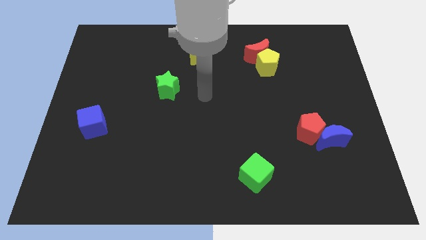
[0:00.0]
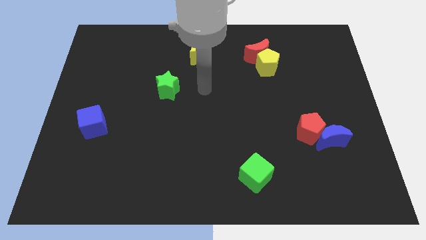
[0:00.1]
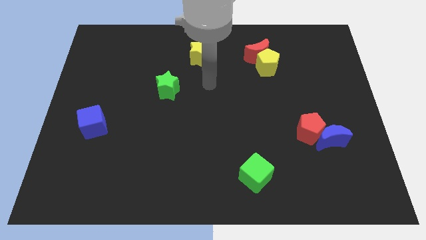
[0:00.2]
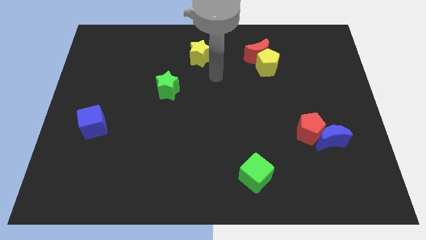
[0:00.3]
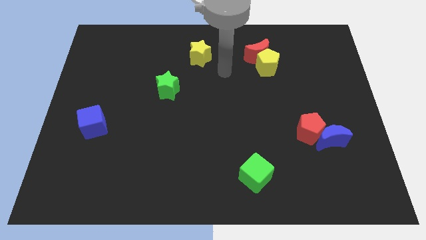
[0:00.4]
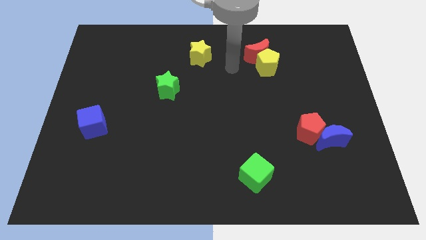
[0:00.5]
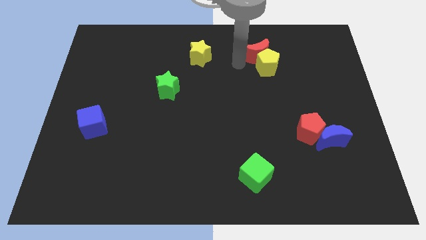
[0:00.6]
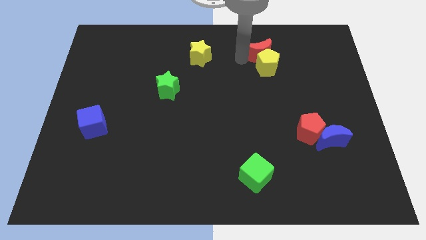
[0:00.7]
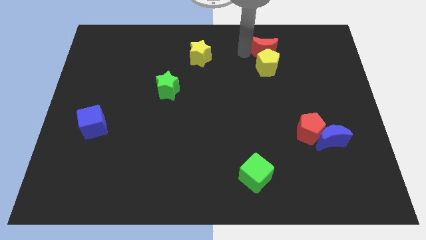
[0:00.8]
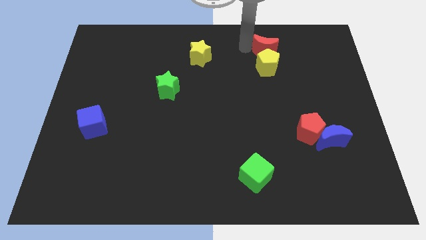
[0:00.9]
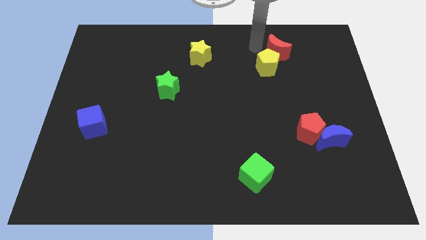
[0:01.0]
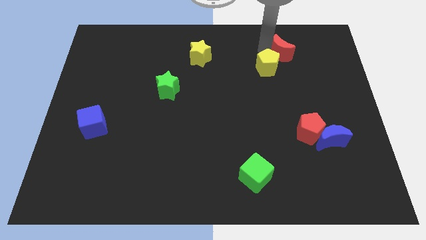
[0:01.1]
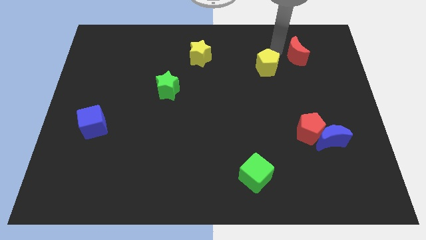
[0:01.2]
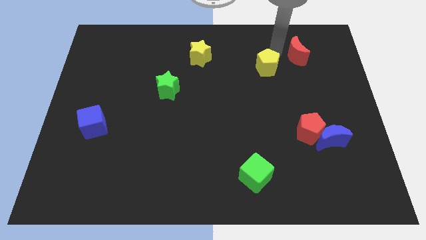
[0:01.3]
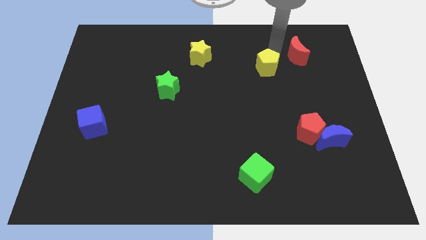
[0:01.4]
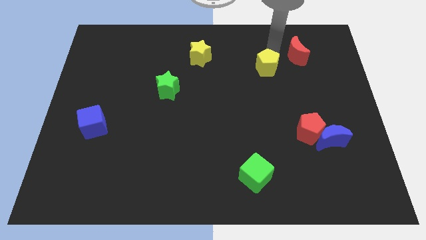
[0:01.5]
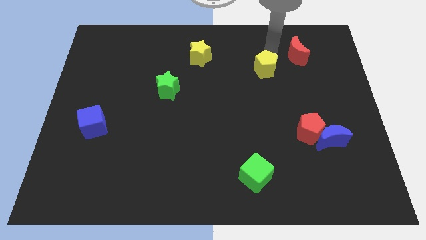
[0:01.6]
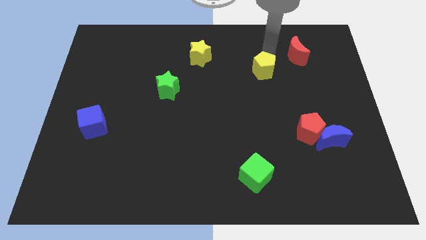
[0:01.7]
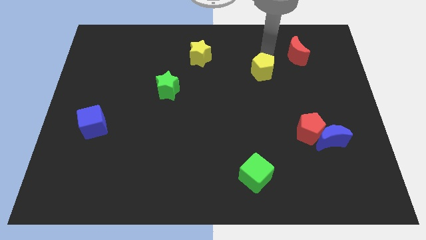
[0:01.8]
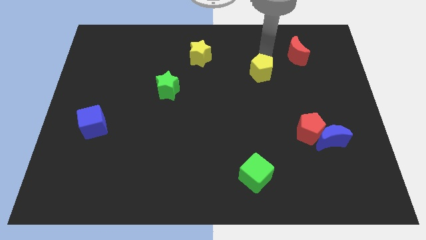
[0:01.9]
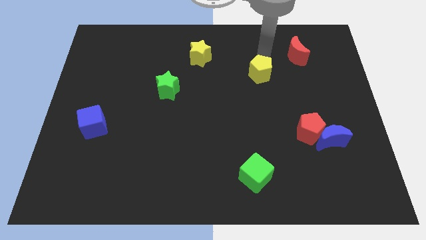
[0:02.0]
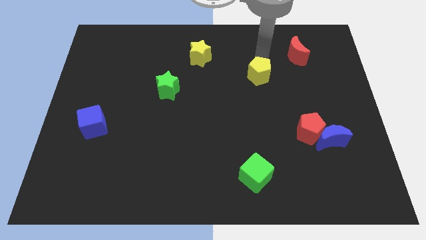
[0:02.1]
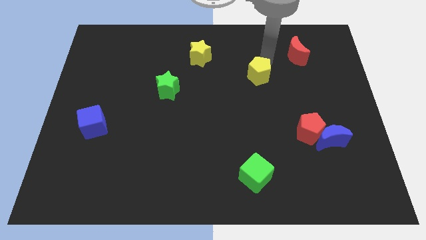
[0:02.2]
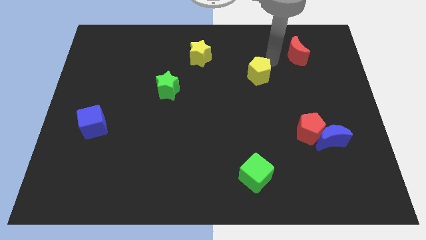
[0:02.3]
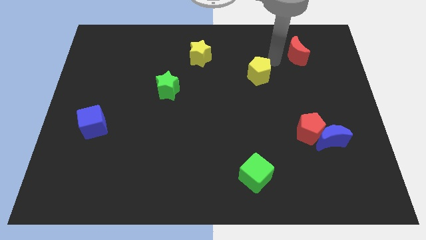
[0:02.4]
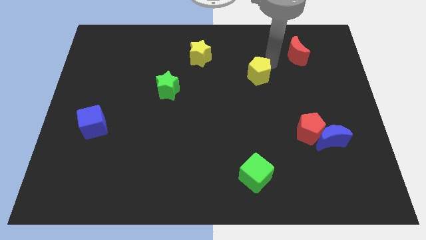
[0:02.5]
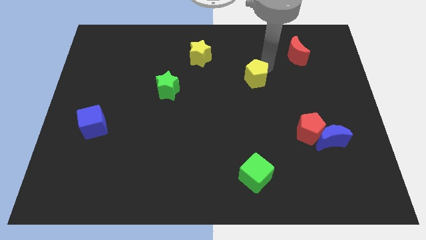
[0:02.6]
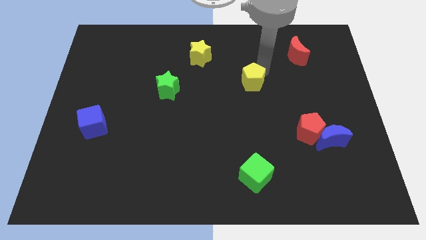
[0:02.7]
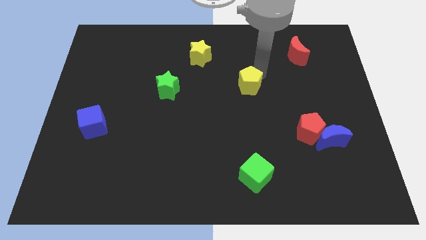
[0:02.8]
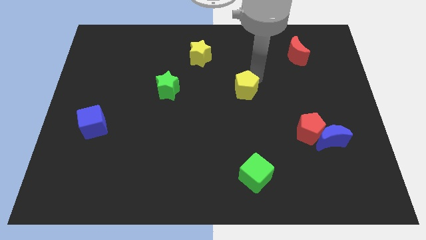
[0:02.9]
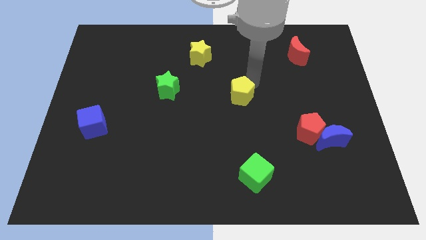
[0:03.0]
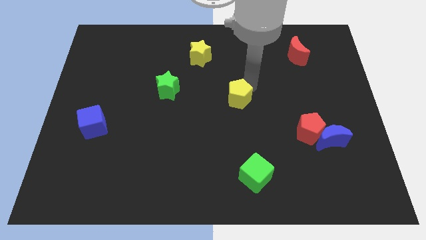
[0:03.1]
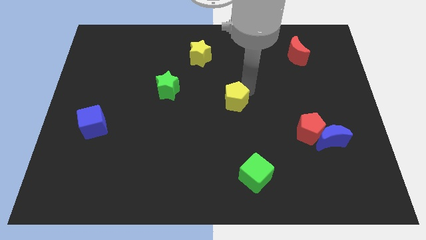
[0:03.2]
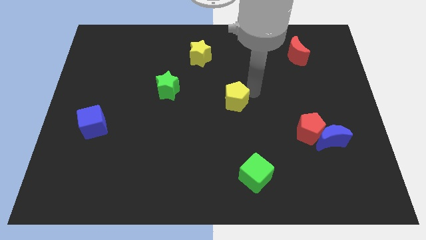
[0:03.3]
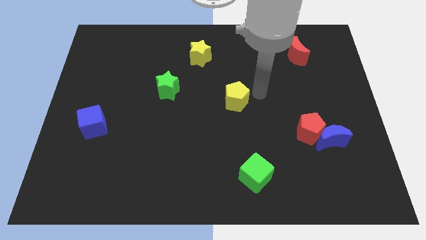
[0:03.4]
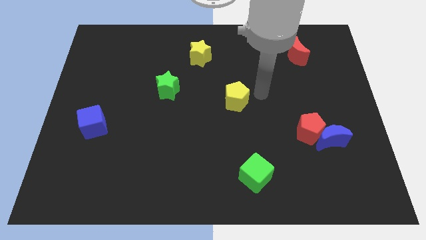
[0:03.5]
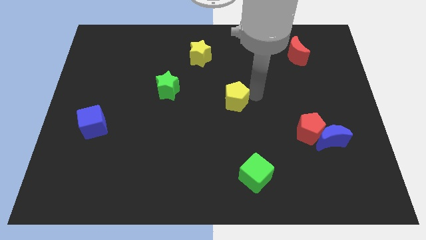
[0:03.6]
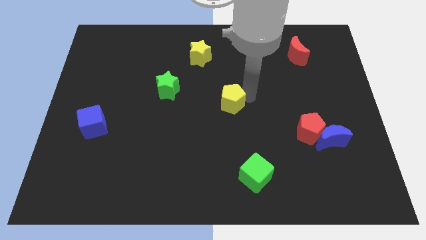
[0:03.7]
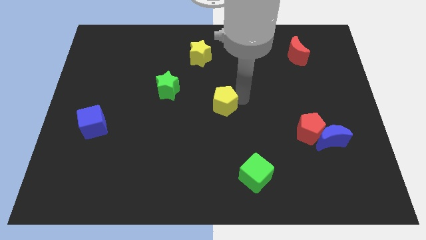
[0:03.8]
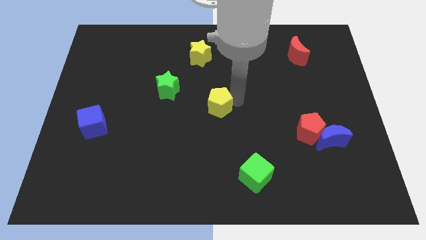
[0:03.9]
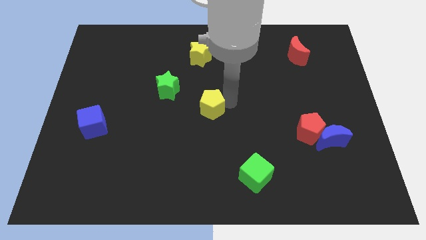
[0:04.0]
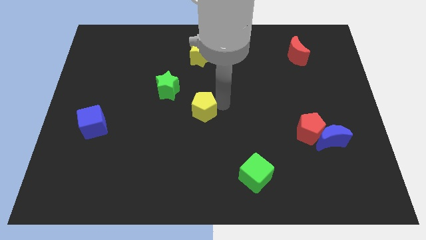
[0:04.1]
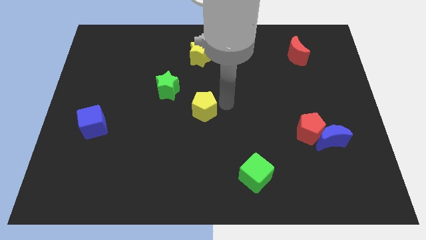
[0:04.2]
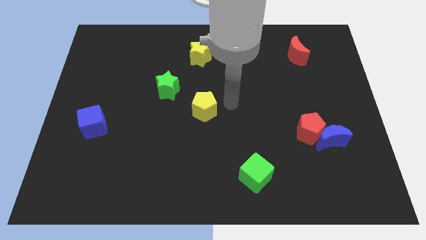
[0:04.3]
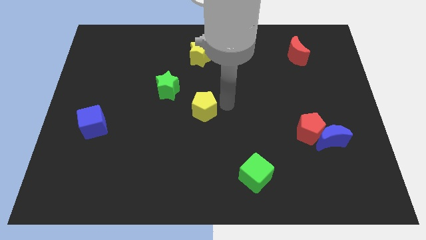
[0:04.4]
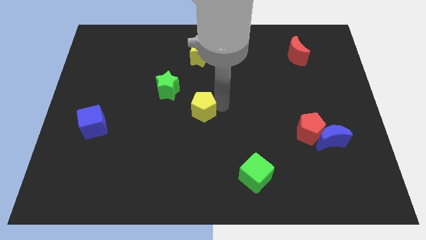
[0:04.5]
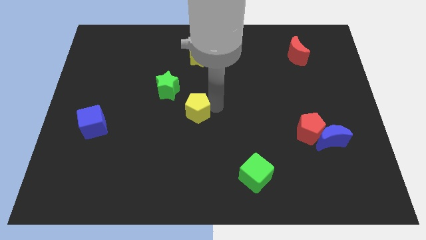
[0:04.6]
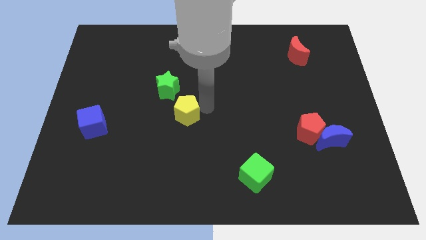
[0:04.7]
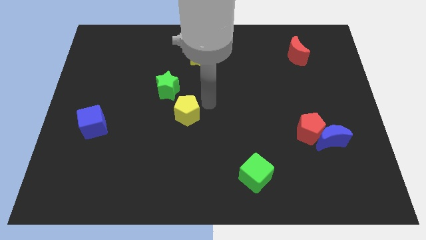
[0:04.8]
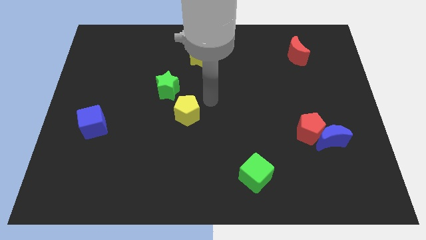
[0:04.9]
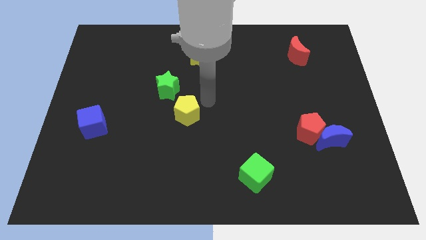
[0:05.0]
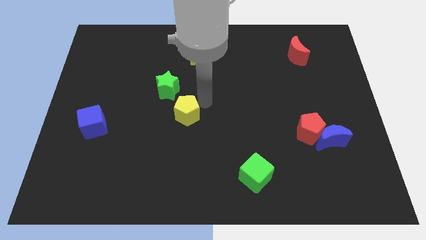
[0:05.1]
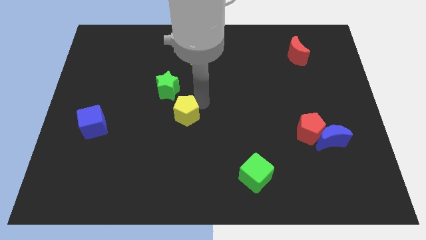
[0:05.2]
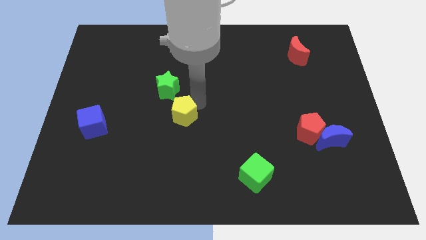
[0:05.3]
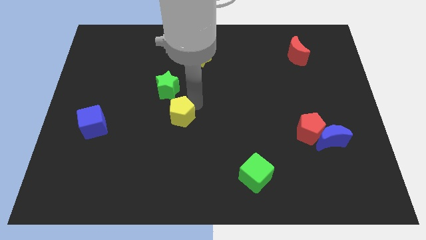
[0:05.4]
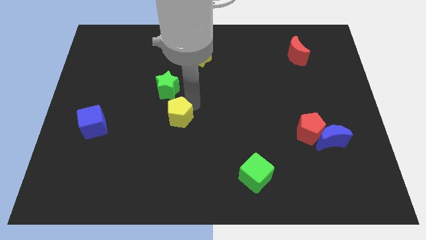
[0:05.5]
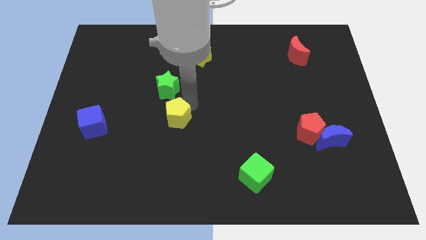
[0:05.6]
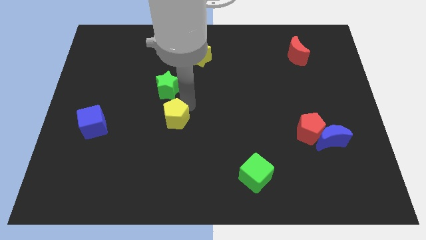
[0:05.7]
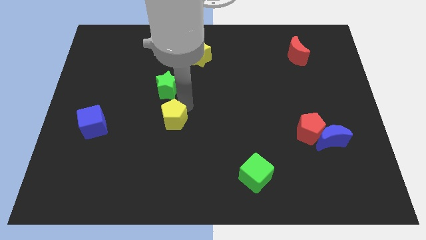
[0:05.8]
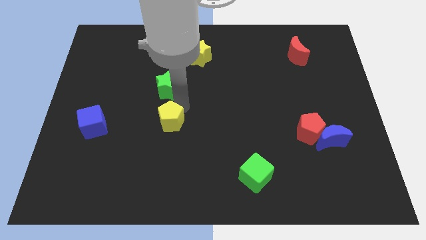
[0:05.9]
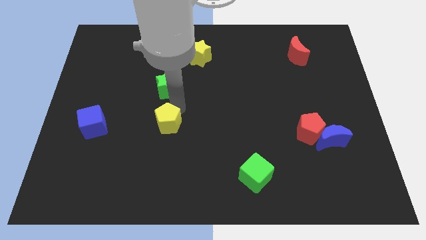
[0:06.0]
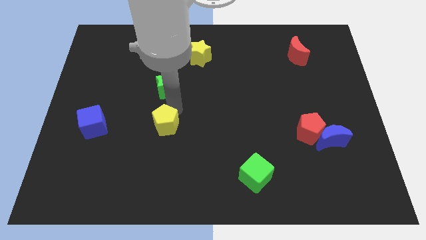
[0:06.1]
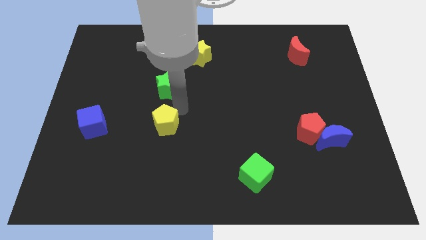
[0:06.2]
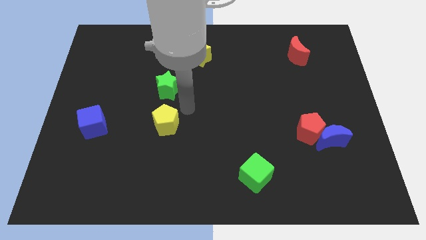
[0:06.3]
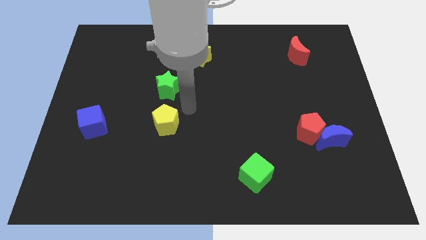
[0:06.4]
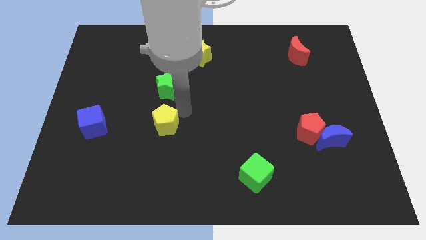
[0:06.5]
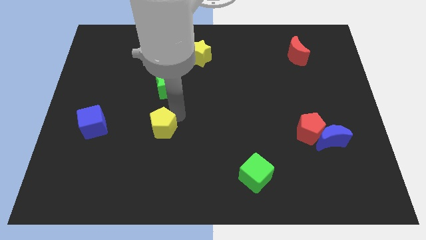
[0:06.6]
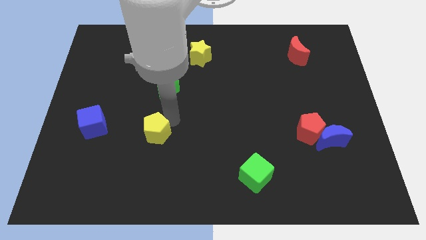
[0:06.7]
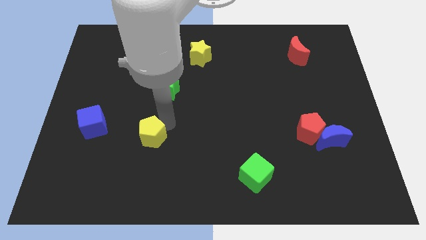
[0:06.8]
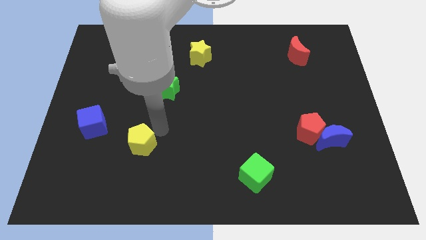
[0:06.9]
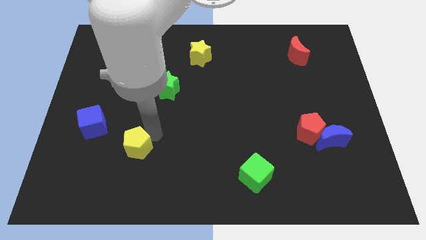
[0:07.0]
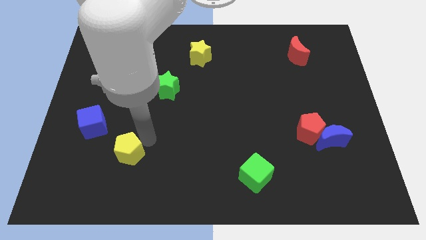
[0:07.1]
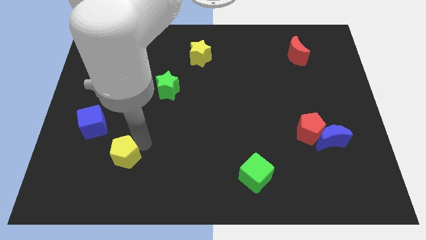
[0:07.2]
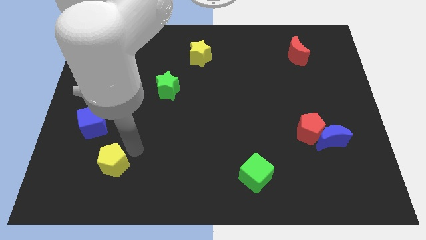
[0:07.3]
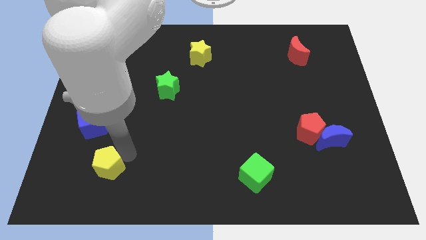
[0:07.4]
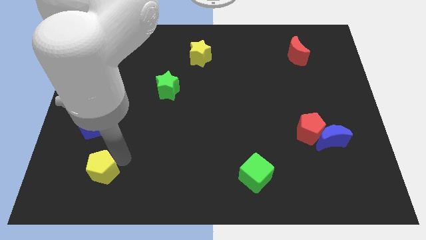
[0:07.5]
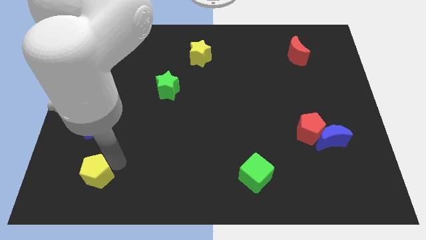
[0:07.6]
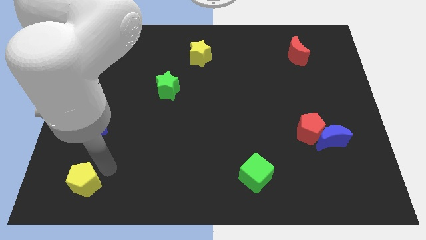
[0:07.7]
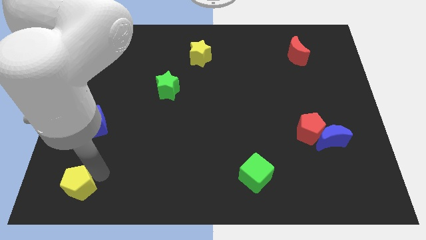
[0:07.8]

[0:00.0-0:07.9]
push the yellow pentagon to the bottom left of the board
